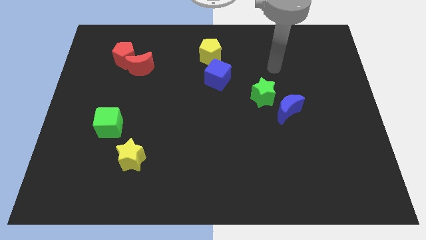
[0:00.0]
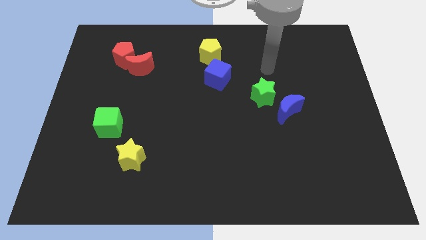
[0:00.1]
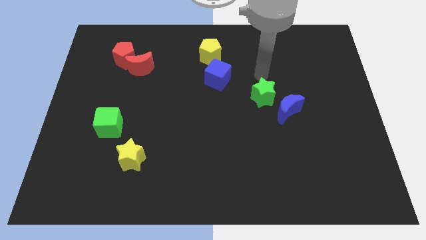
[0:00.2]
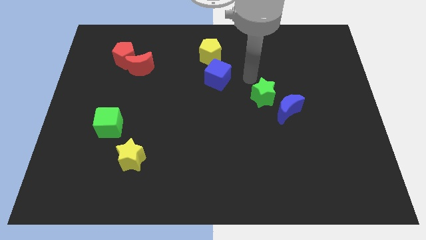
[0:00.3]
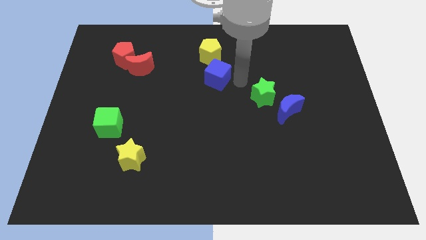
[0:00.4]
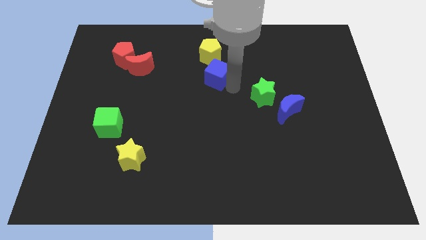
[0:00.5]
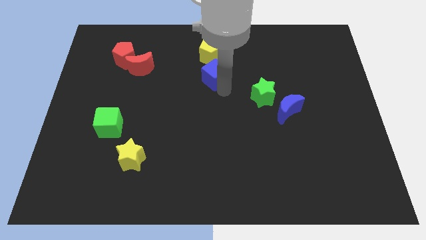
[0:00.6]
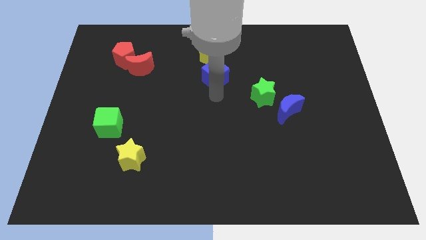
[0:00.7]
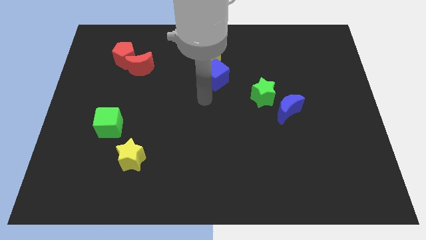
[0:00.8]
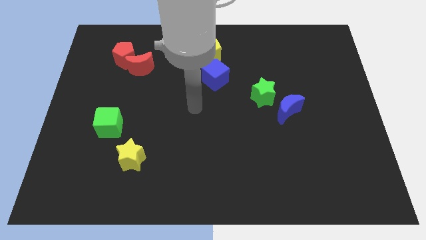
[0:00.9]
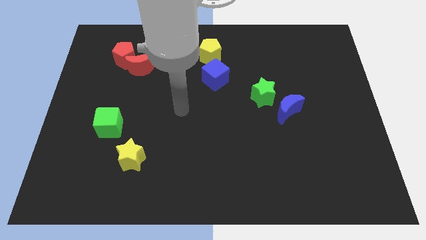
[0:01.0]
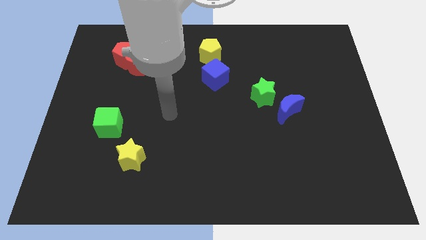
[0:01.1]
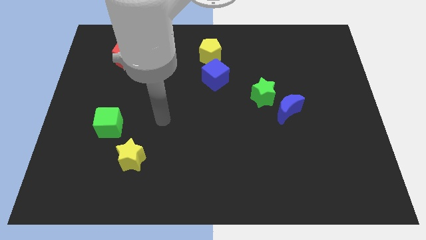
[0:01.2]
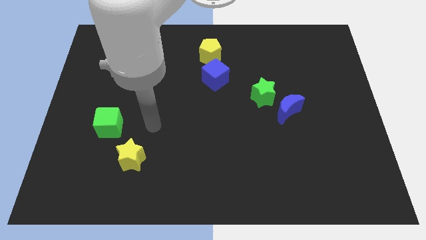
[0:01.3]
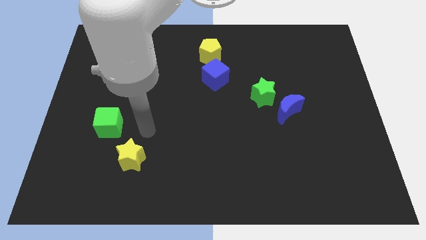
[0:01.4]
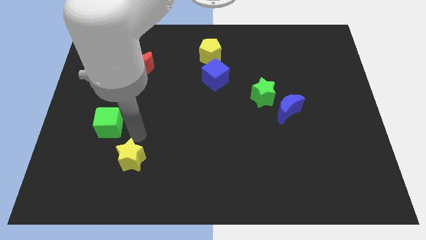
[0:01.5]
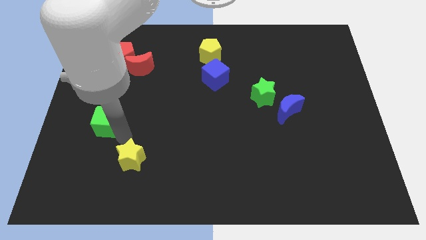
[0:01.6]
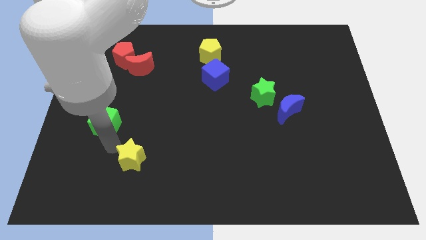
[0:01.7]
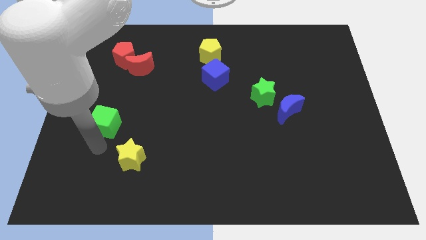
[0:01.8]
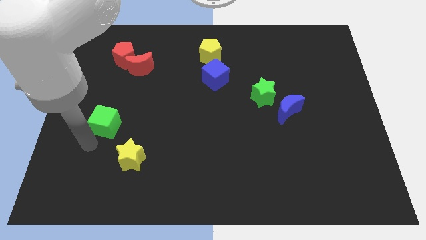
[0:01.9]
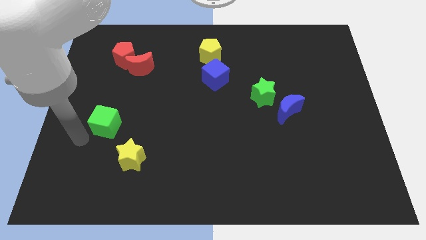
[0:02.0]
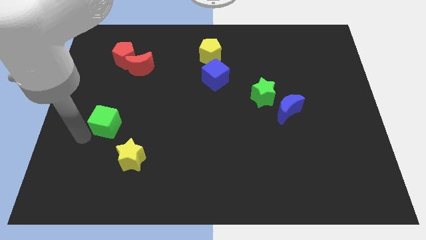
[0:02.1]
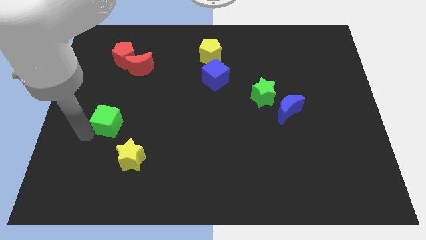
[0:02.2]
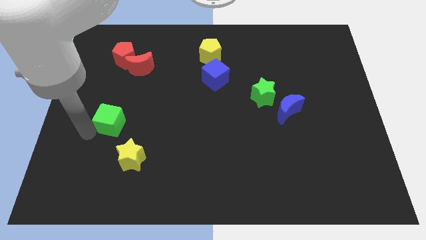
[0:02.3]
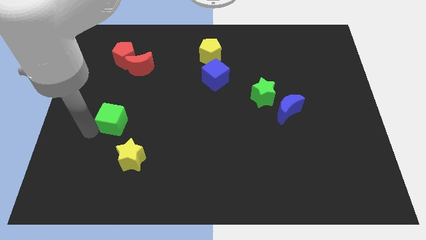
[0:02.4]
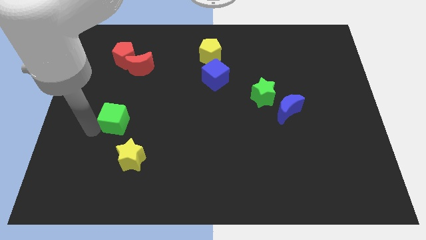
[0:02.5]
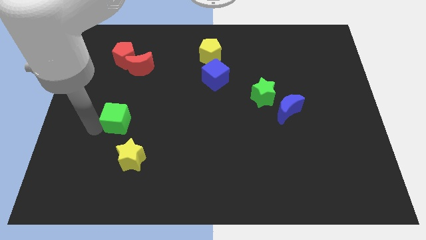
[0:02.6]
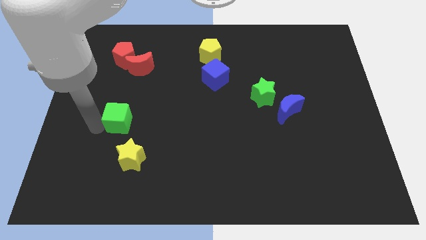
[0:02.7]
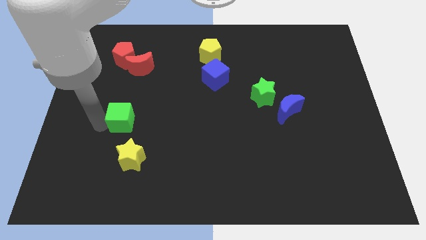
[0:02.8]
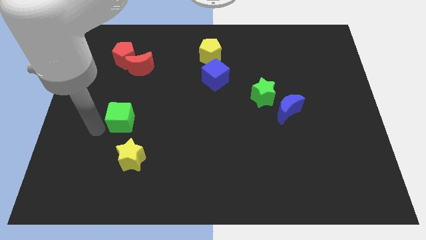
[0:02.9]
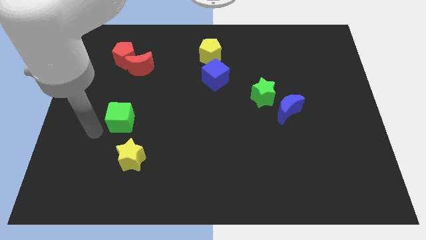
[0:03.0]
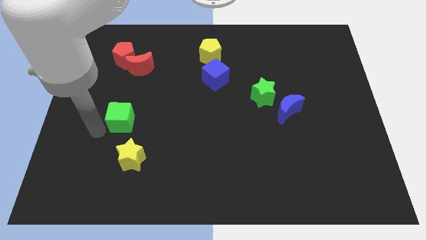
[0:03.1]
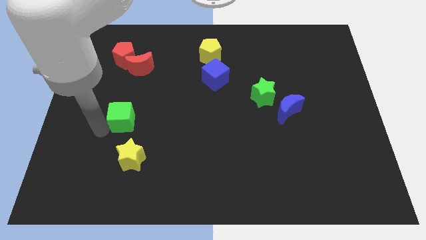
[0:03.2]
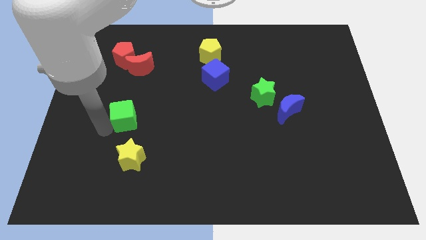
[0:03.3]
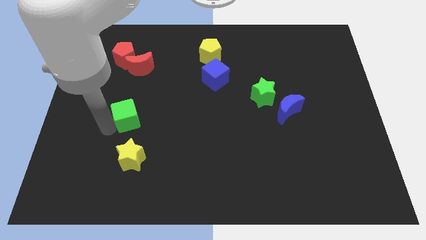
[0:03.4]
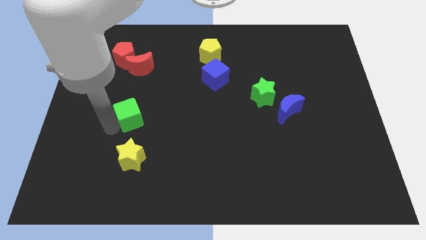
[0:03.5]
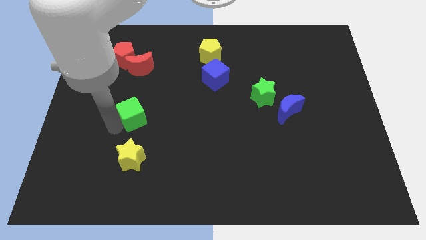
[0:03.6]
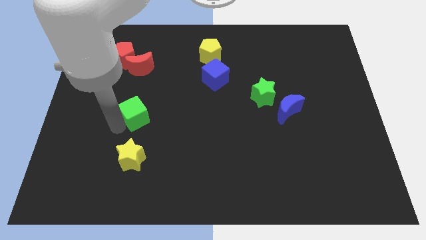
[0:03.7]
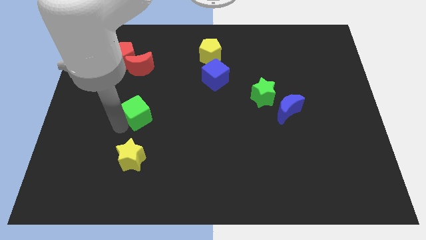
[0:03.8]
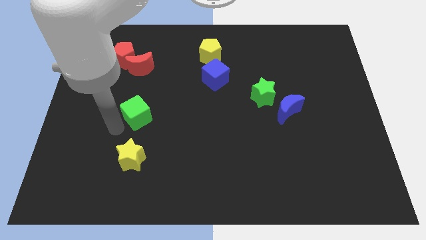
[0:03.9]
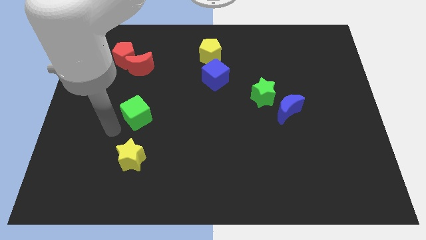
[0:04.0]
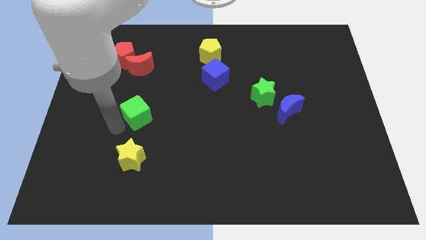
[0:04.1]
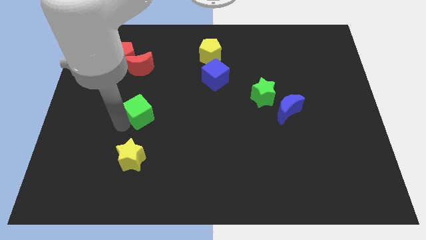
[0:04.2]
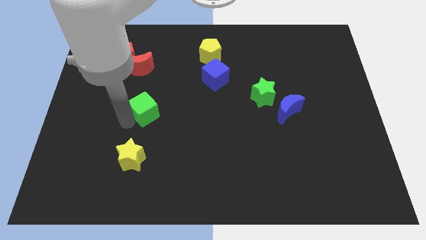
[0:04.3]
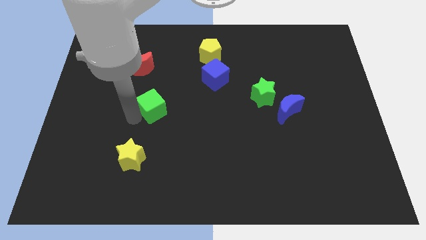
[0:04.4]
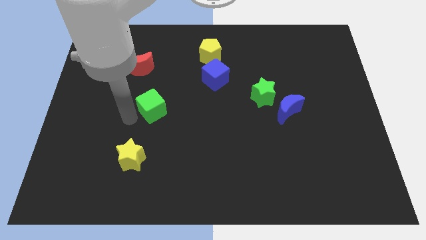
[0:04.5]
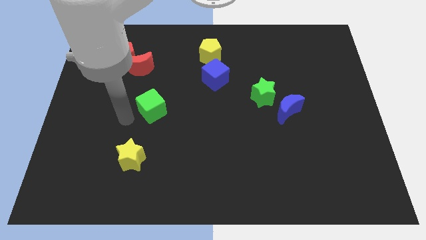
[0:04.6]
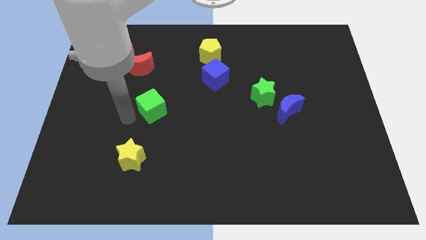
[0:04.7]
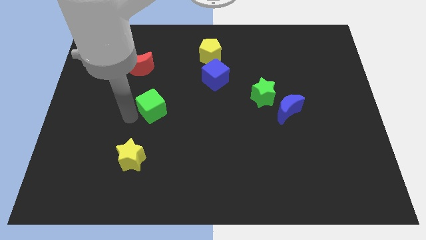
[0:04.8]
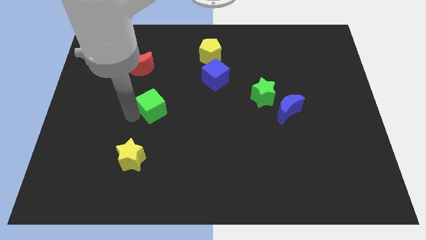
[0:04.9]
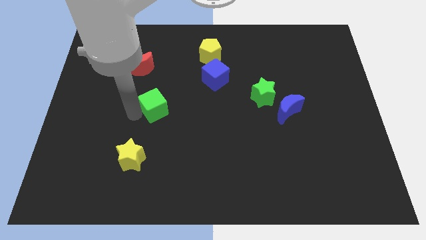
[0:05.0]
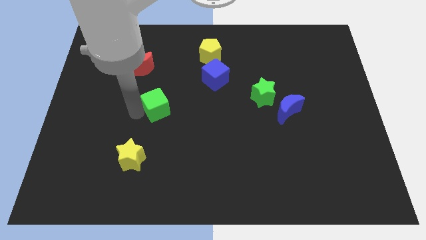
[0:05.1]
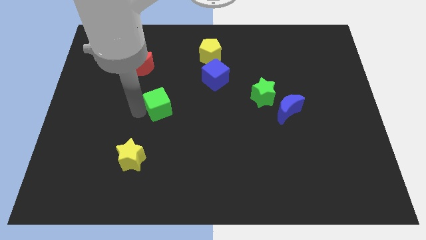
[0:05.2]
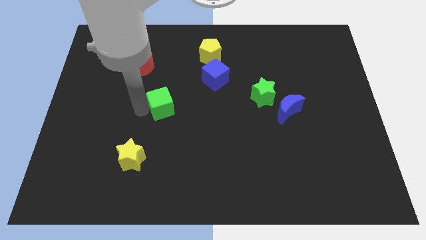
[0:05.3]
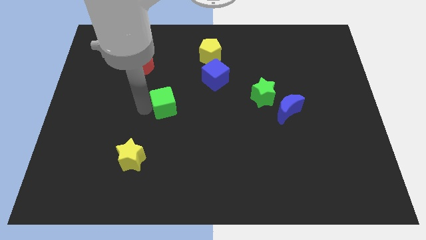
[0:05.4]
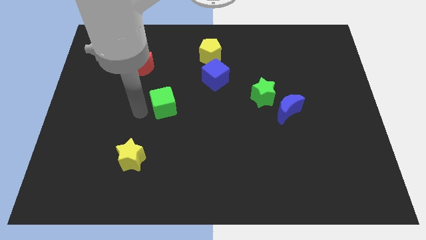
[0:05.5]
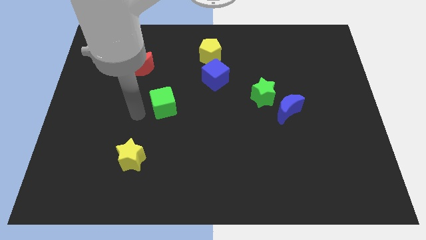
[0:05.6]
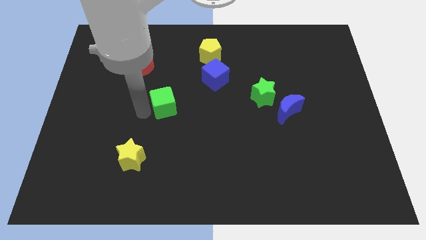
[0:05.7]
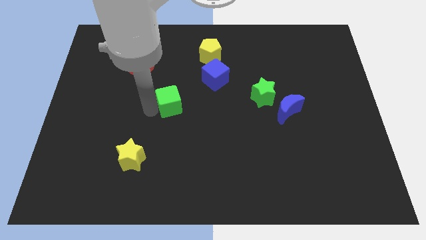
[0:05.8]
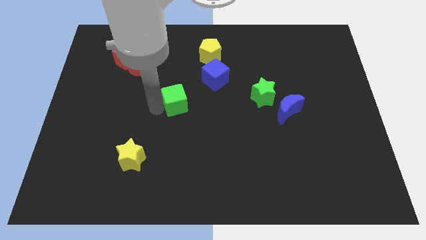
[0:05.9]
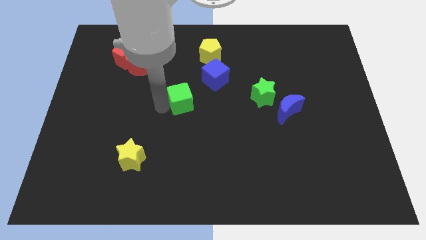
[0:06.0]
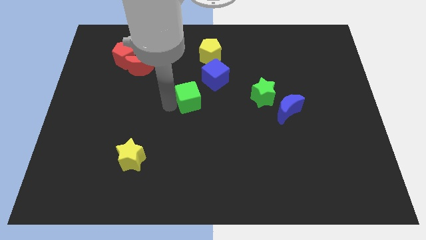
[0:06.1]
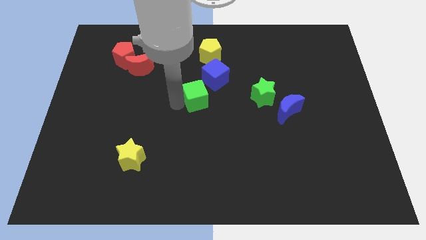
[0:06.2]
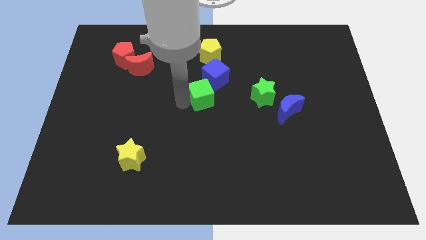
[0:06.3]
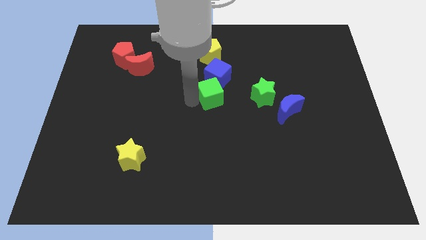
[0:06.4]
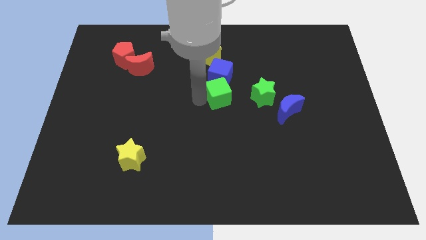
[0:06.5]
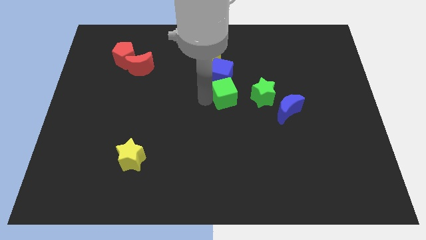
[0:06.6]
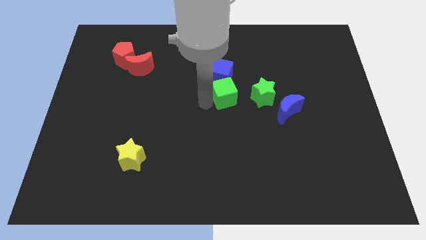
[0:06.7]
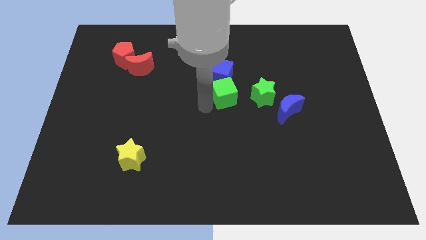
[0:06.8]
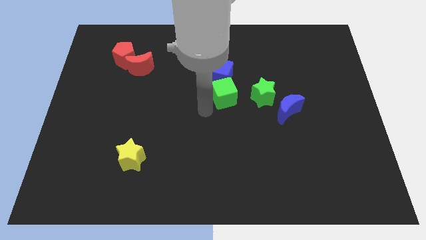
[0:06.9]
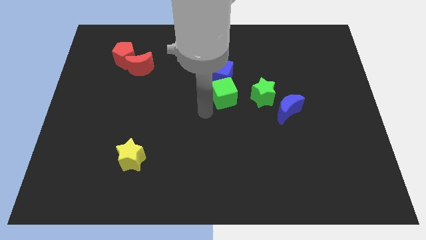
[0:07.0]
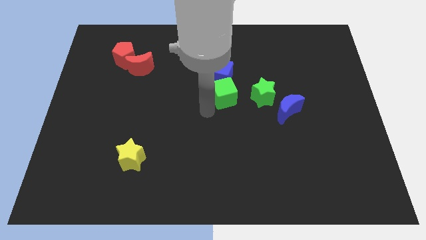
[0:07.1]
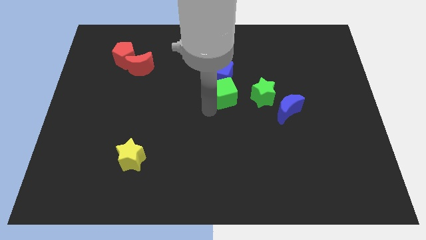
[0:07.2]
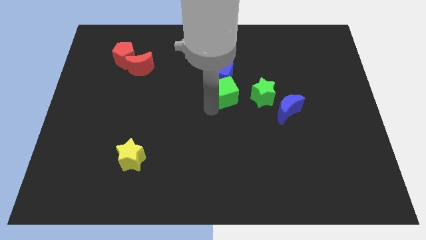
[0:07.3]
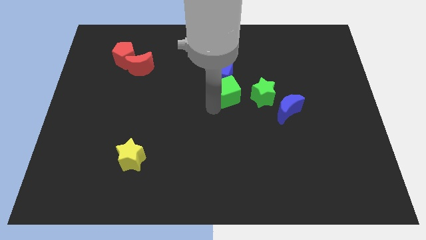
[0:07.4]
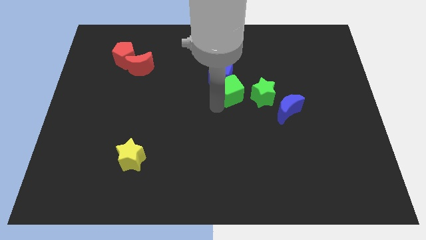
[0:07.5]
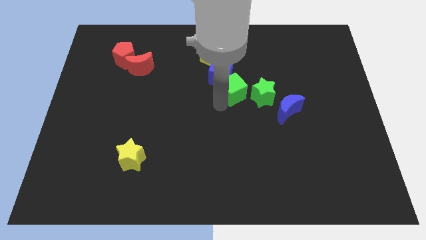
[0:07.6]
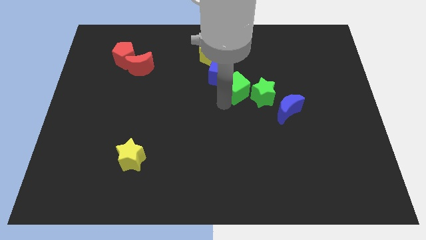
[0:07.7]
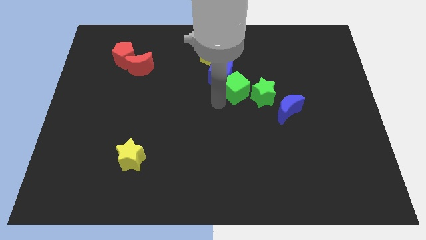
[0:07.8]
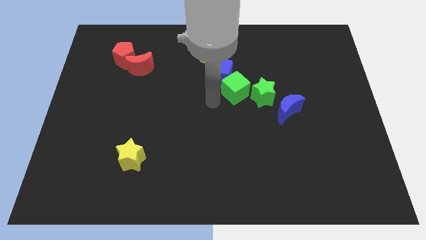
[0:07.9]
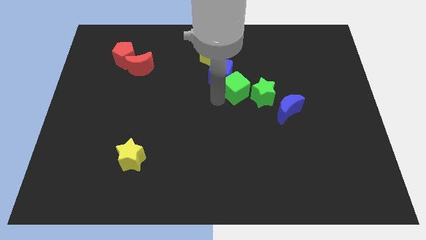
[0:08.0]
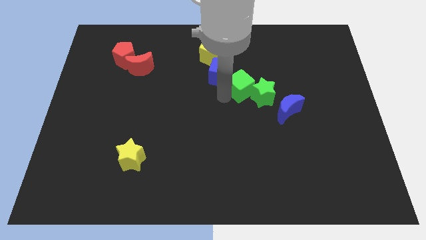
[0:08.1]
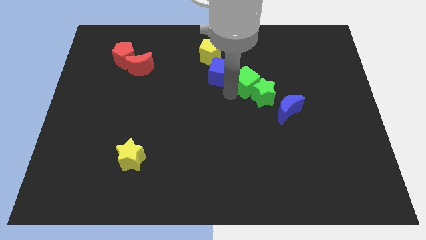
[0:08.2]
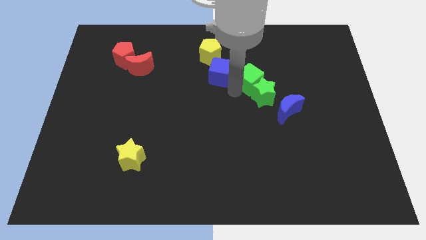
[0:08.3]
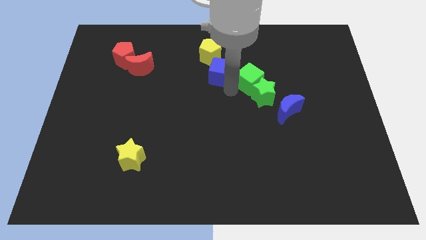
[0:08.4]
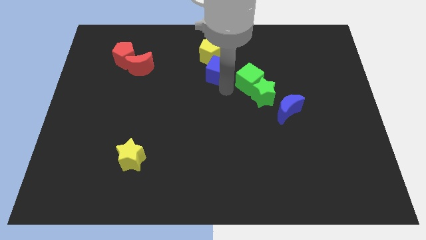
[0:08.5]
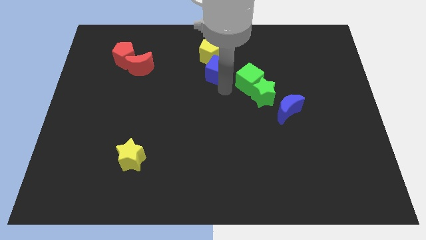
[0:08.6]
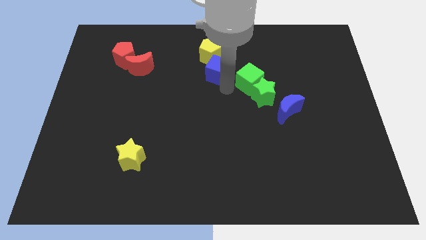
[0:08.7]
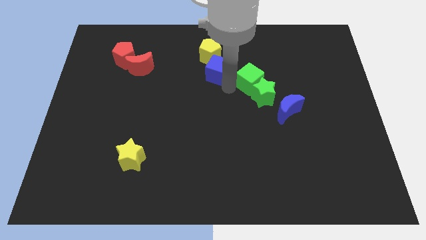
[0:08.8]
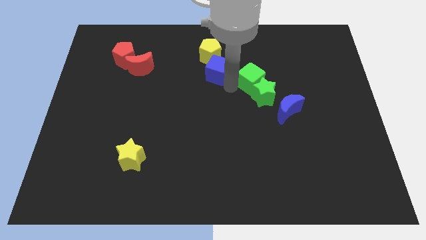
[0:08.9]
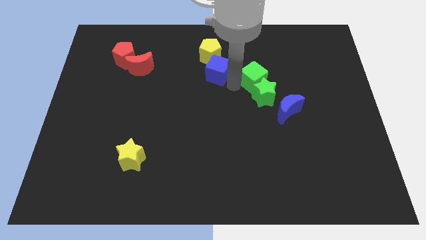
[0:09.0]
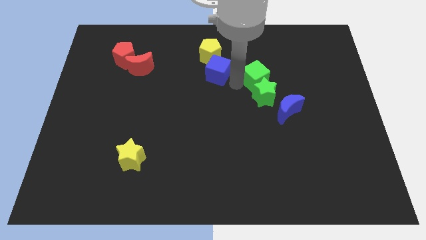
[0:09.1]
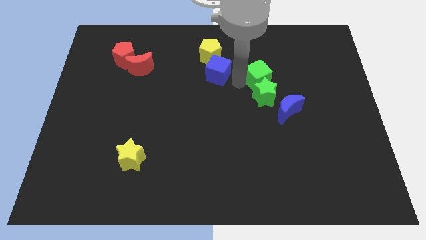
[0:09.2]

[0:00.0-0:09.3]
move the green cube to the top right of the green star
